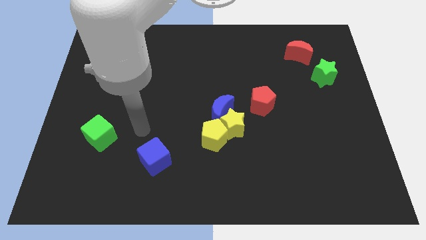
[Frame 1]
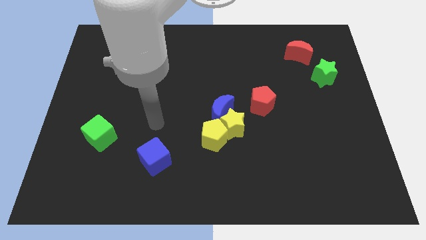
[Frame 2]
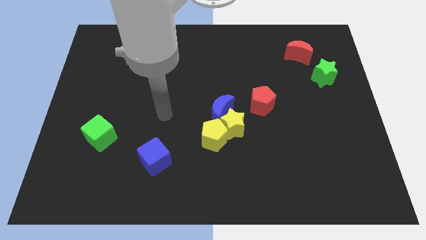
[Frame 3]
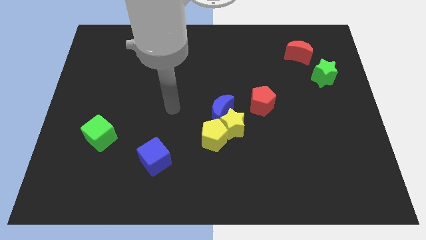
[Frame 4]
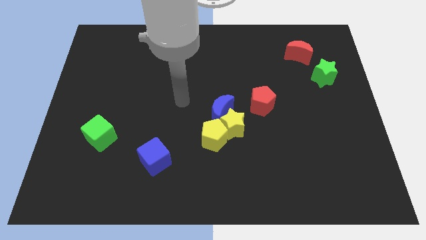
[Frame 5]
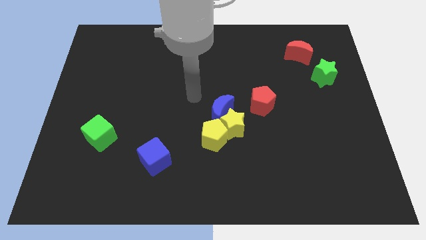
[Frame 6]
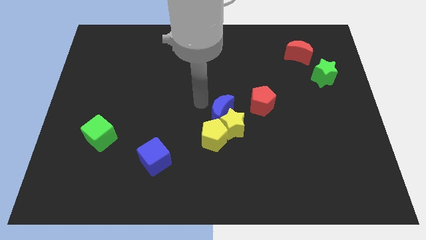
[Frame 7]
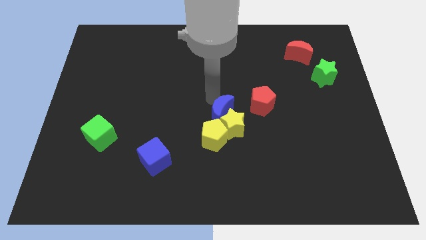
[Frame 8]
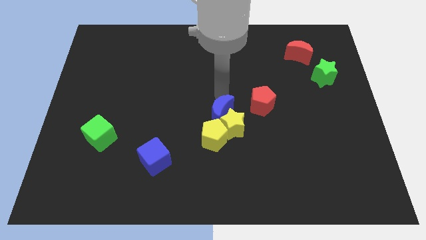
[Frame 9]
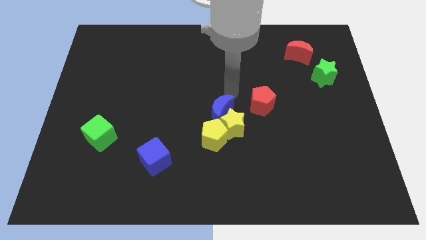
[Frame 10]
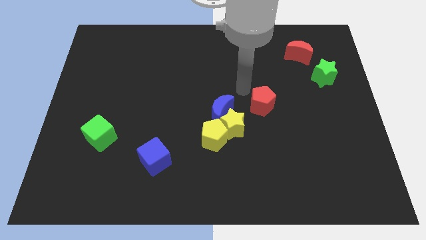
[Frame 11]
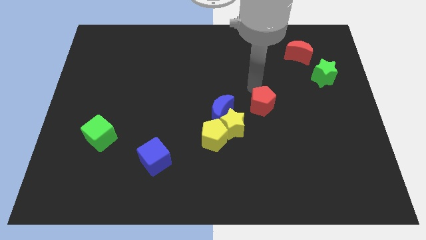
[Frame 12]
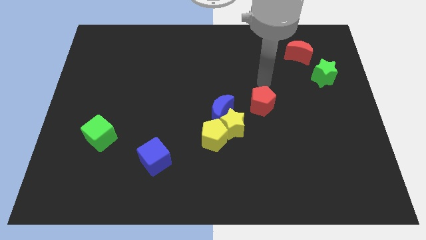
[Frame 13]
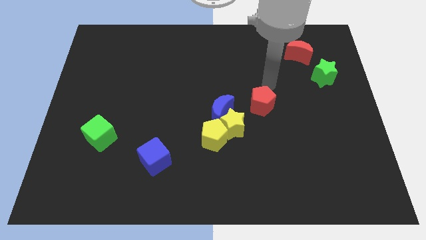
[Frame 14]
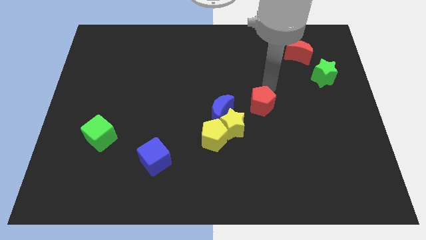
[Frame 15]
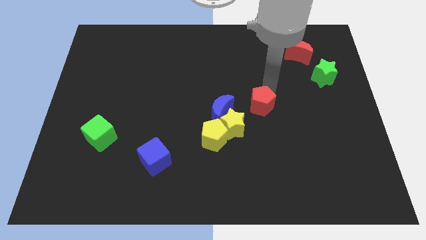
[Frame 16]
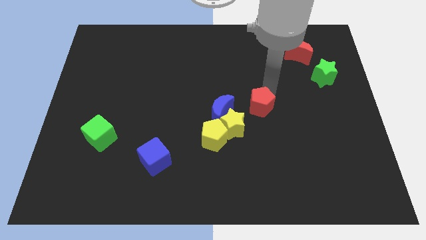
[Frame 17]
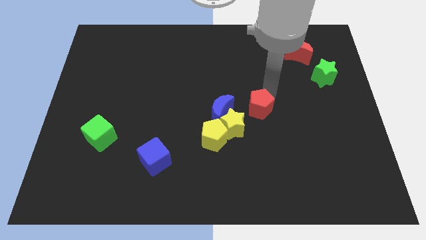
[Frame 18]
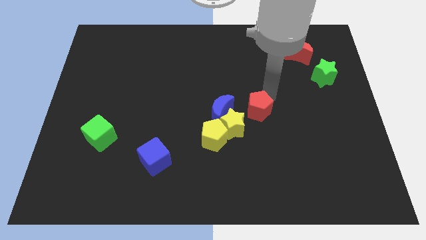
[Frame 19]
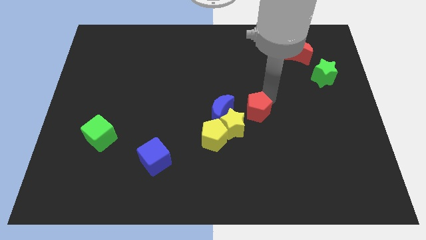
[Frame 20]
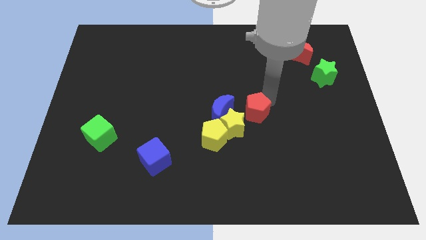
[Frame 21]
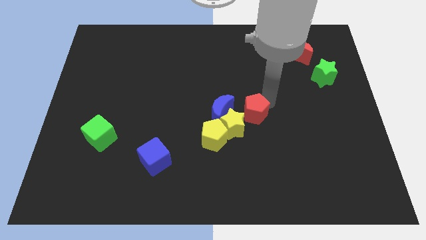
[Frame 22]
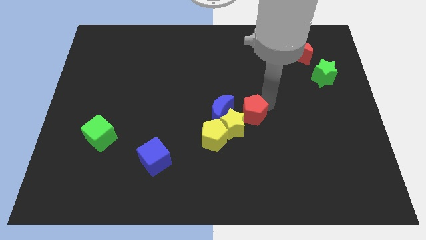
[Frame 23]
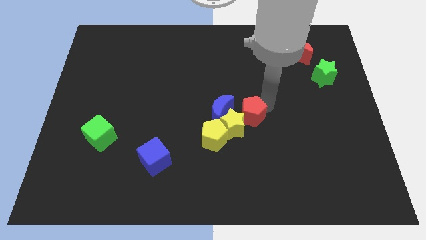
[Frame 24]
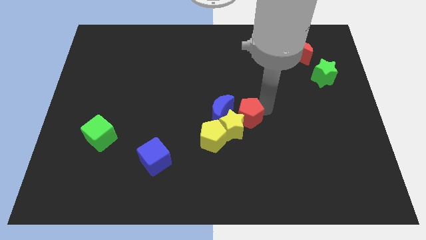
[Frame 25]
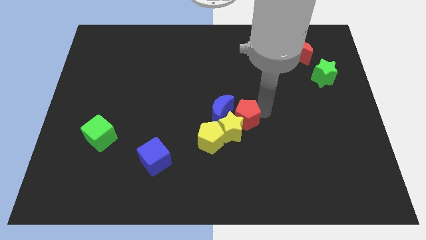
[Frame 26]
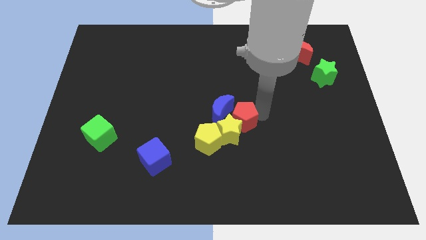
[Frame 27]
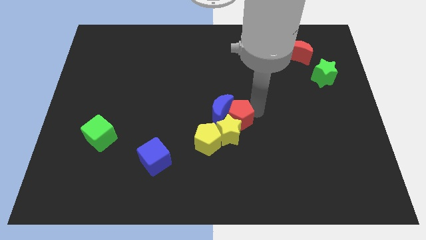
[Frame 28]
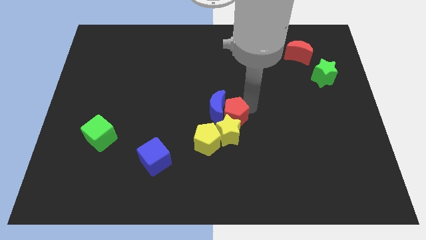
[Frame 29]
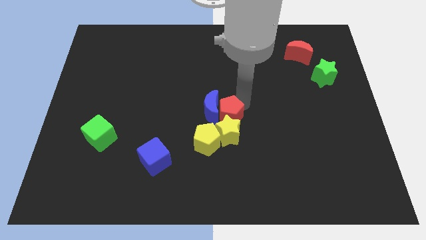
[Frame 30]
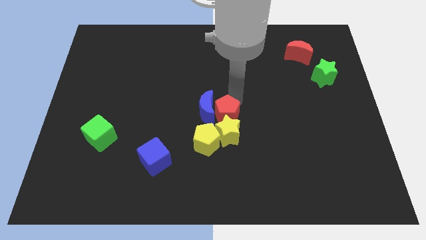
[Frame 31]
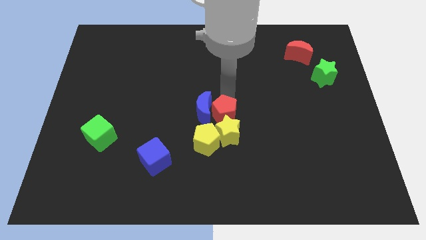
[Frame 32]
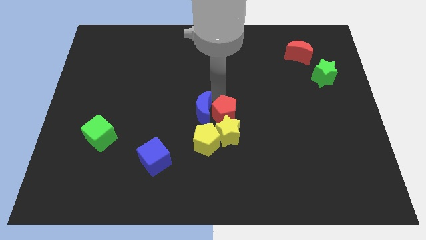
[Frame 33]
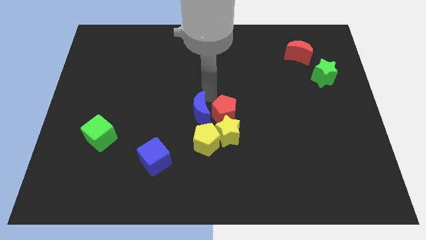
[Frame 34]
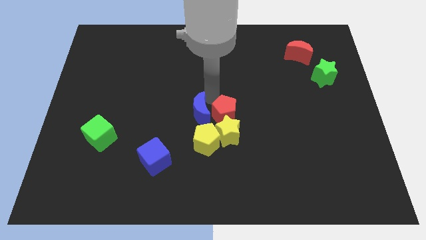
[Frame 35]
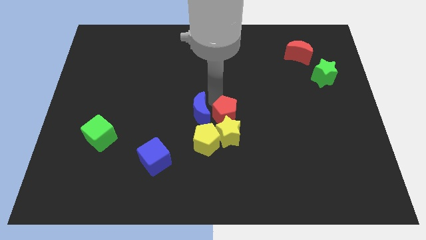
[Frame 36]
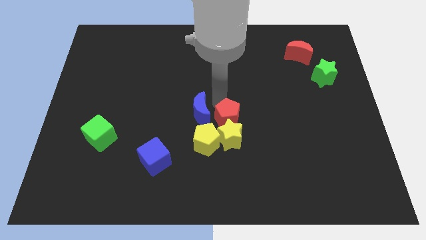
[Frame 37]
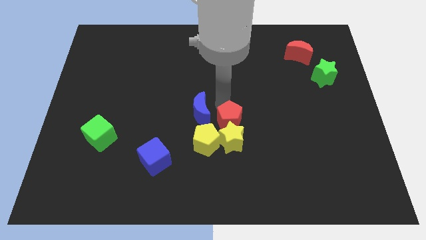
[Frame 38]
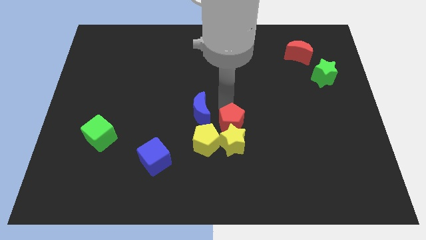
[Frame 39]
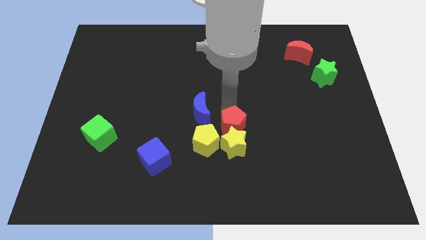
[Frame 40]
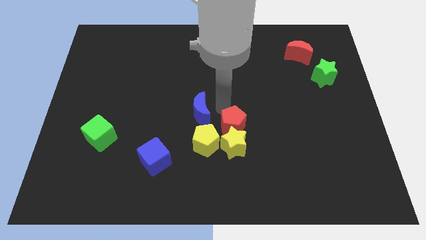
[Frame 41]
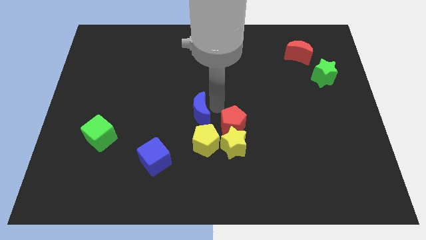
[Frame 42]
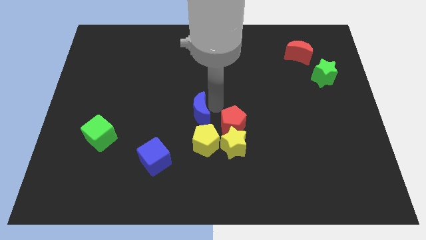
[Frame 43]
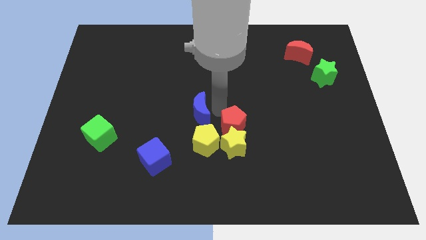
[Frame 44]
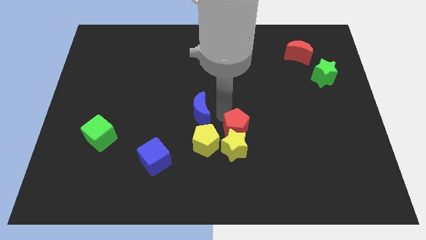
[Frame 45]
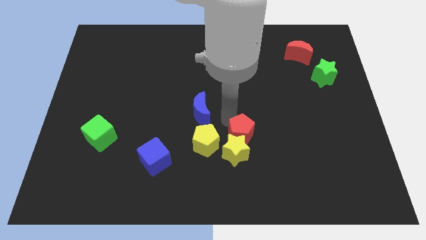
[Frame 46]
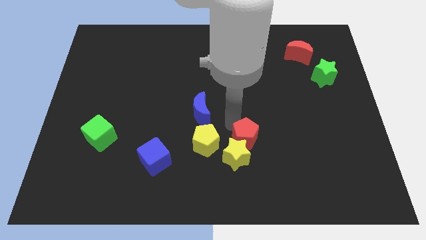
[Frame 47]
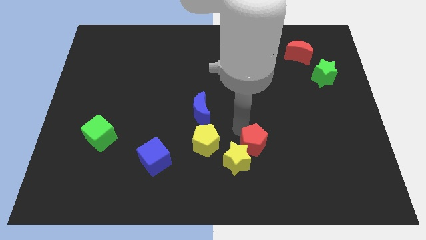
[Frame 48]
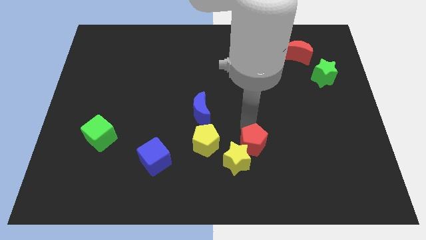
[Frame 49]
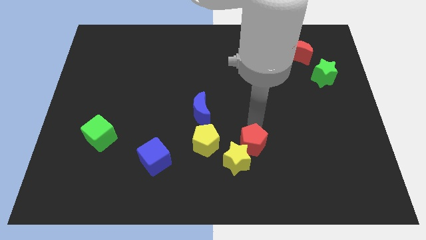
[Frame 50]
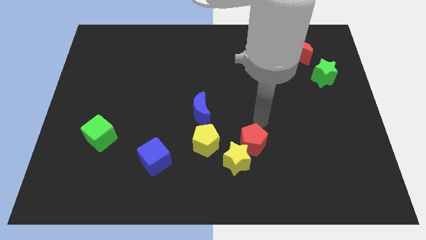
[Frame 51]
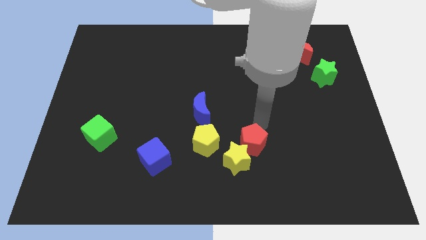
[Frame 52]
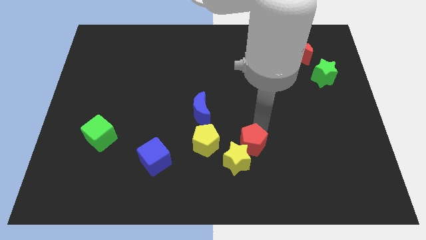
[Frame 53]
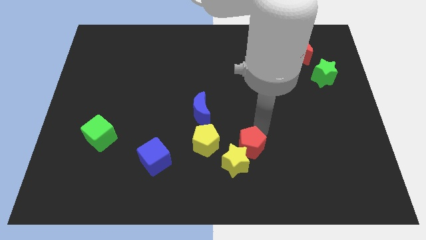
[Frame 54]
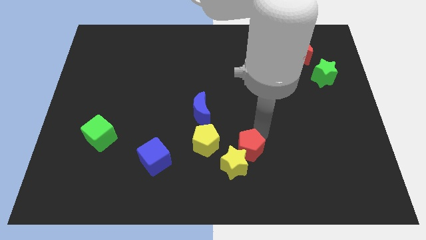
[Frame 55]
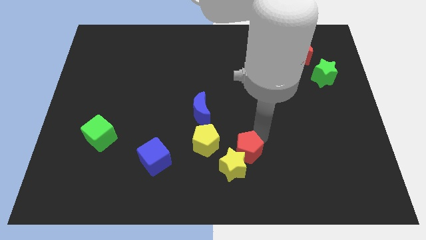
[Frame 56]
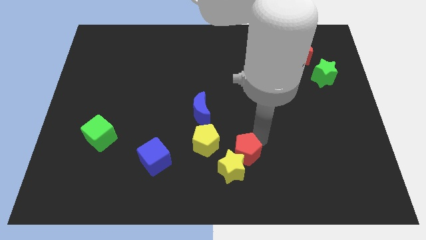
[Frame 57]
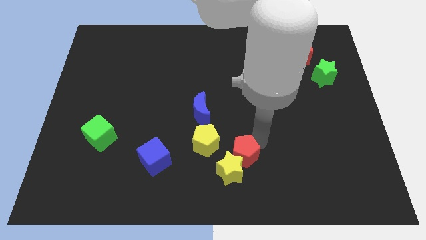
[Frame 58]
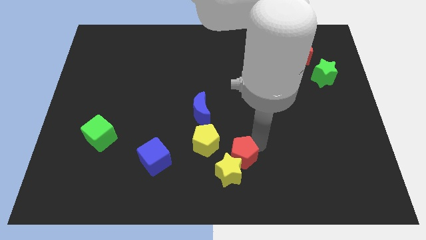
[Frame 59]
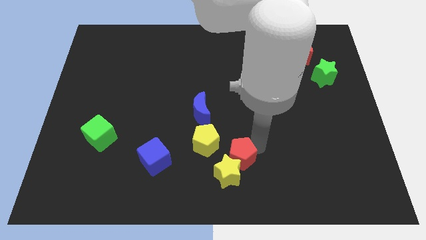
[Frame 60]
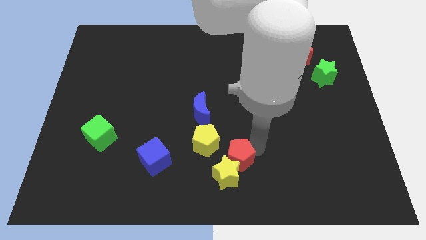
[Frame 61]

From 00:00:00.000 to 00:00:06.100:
push the red pentagon to the bottom
